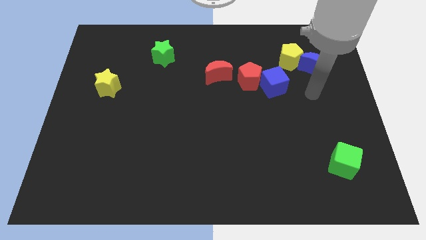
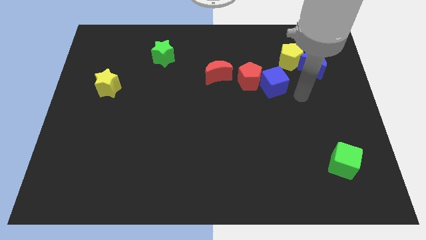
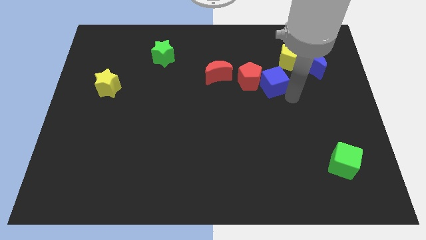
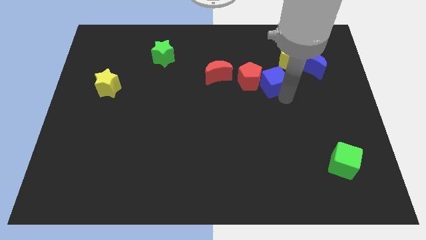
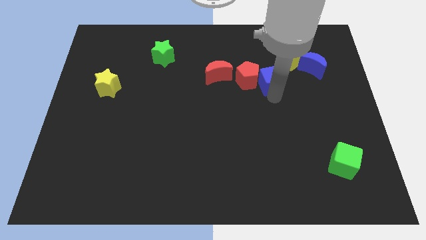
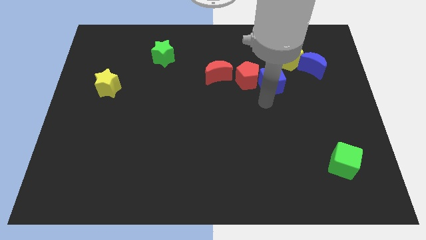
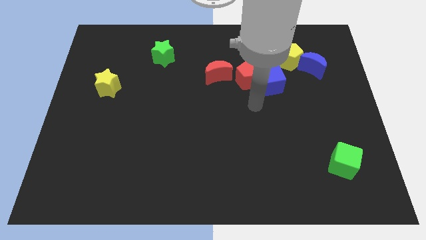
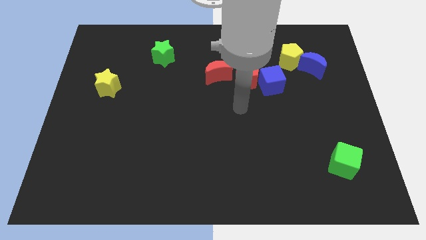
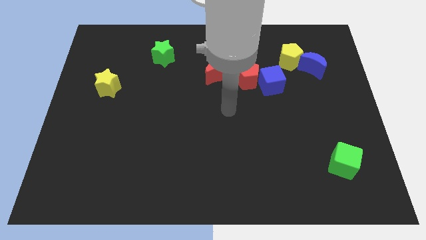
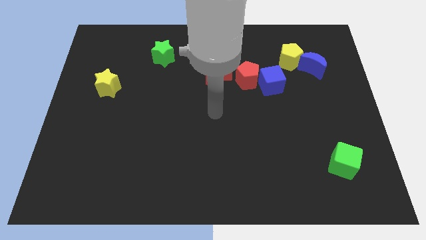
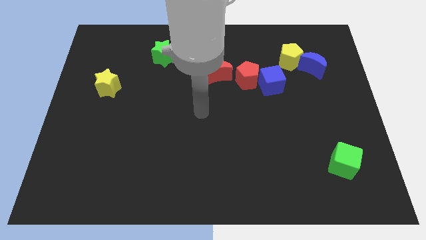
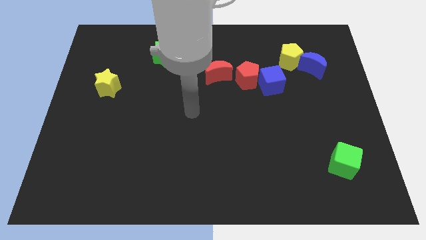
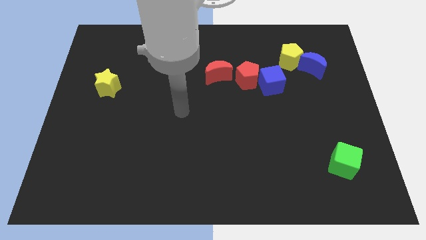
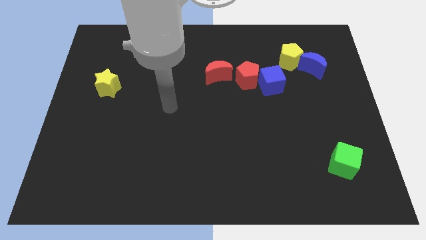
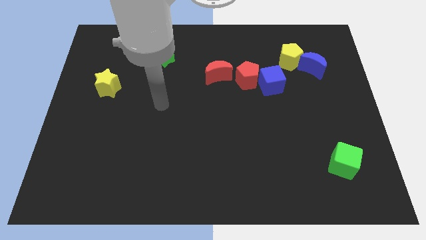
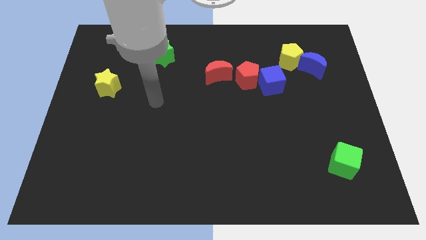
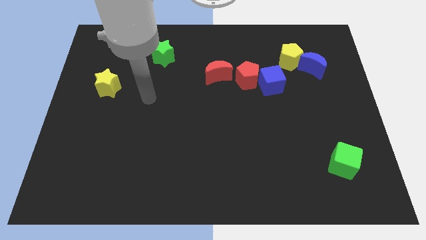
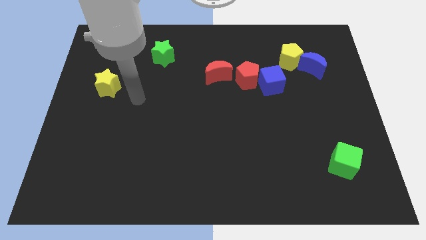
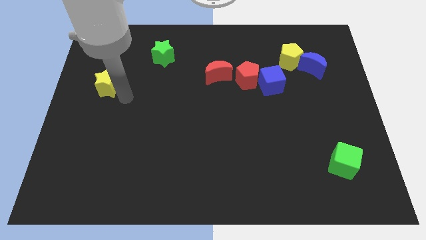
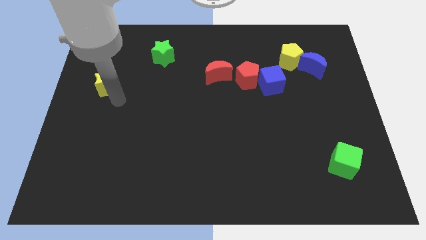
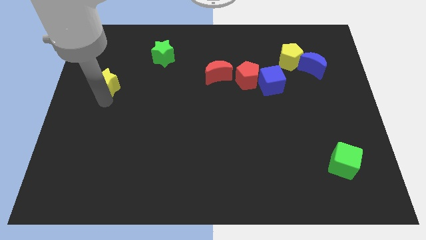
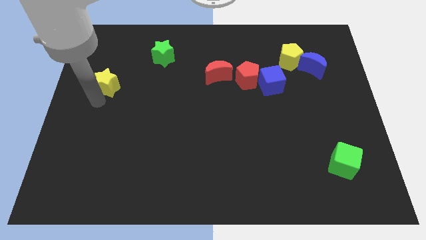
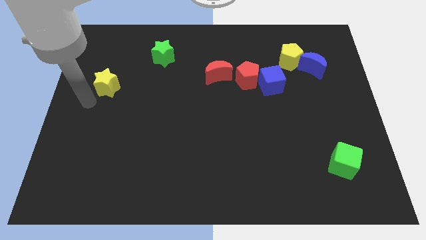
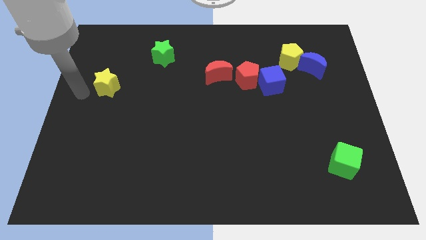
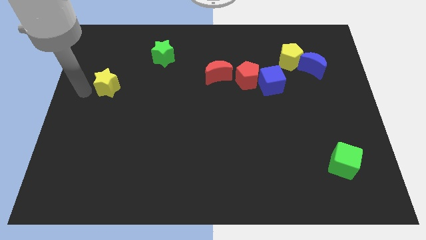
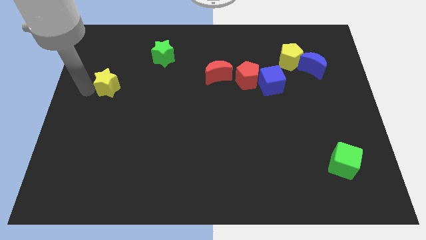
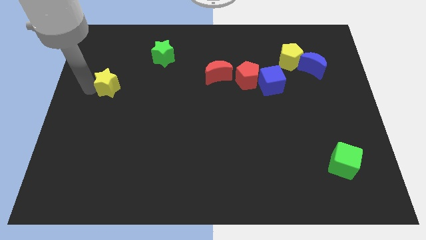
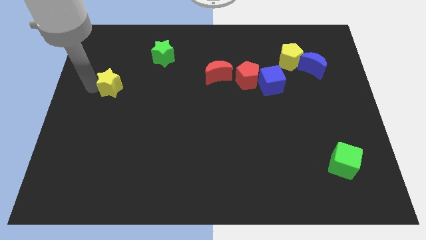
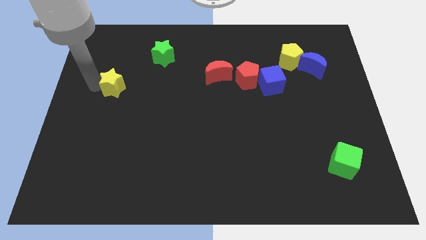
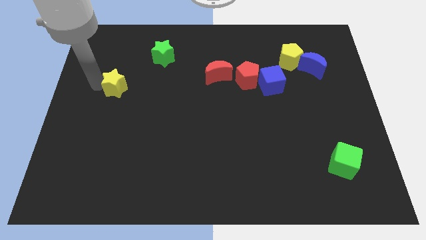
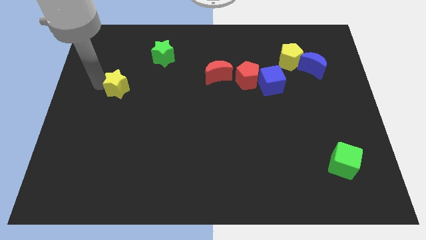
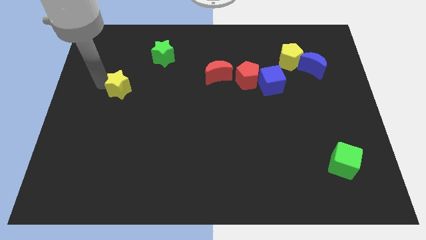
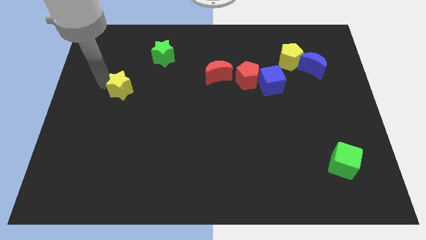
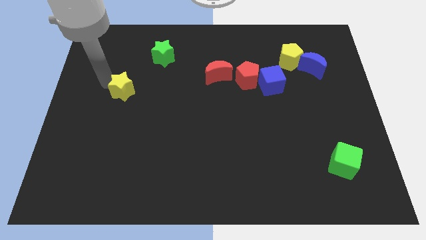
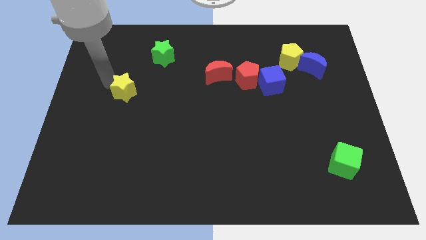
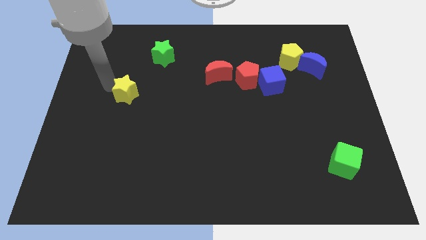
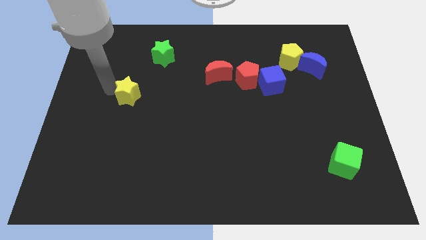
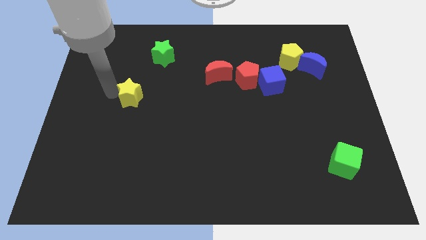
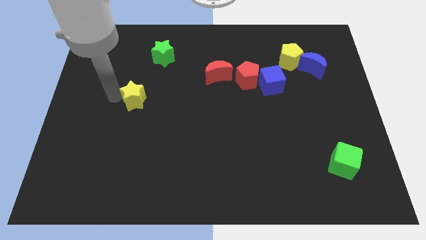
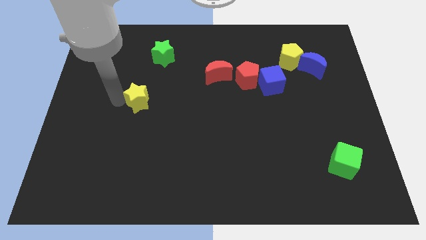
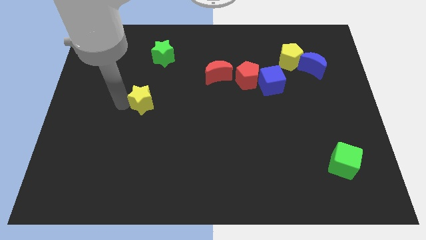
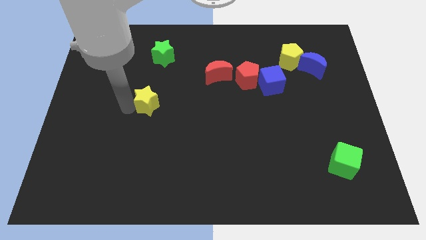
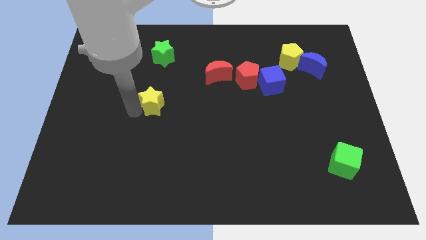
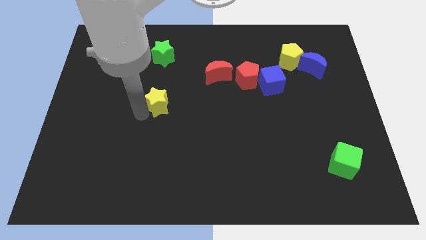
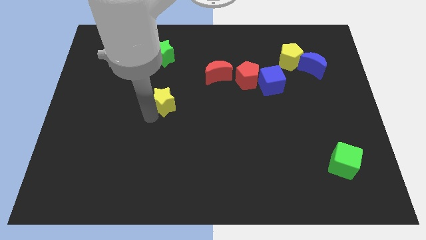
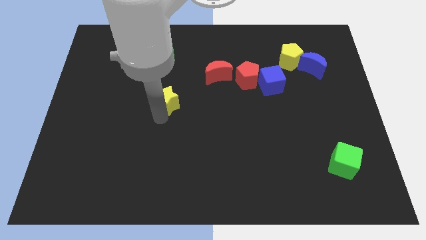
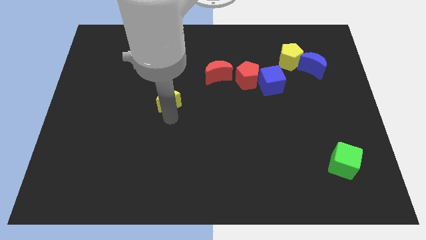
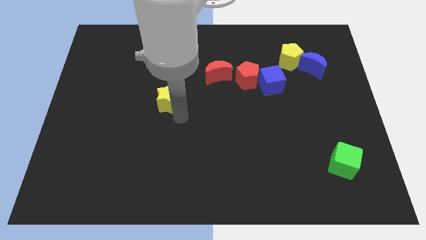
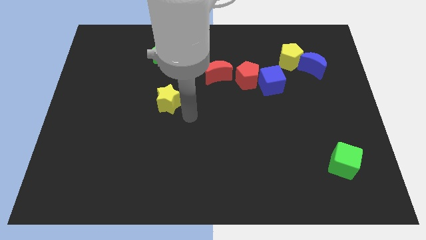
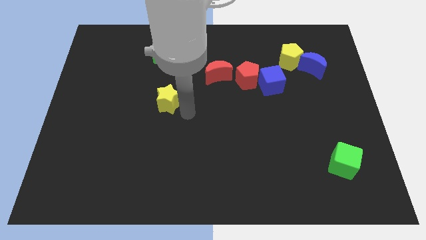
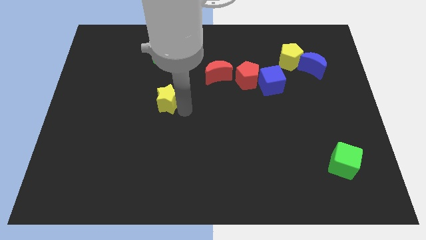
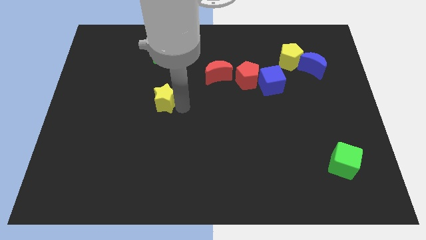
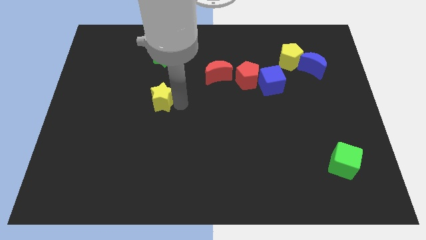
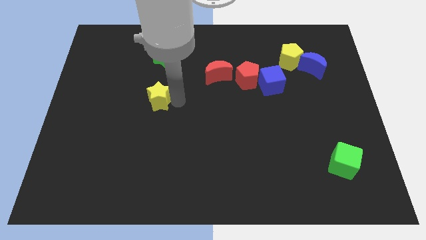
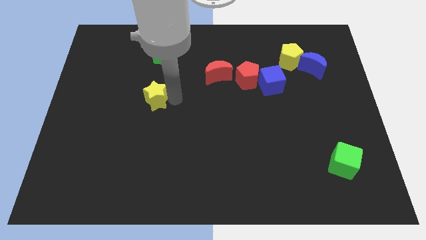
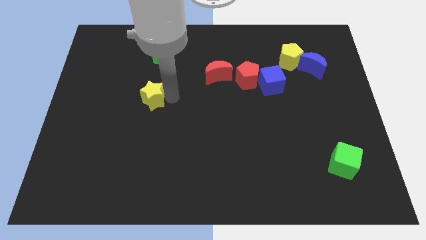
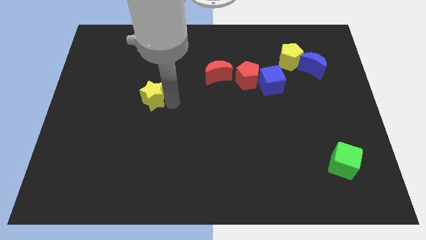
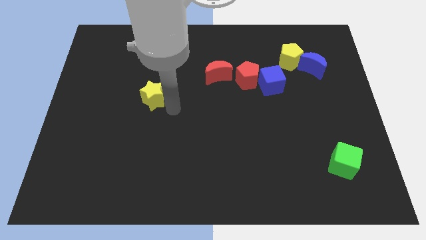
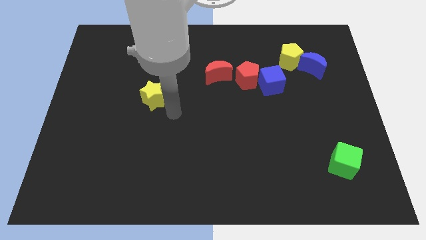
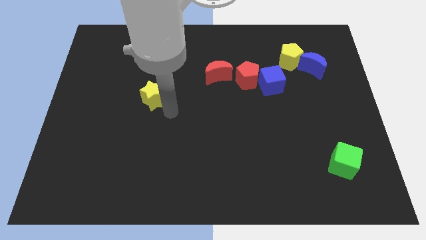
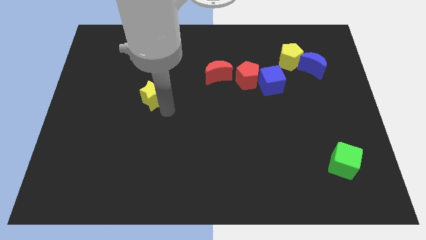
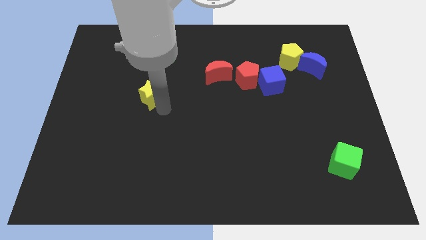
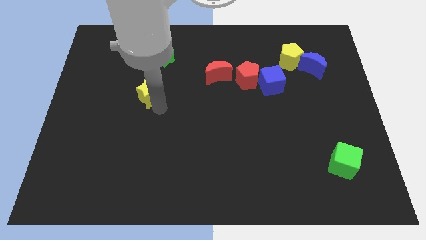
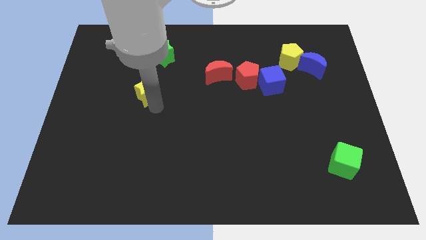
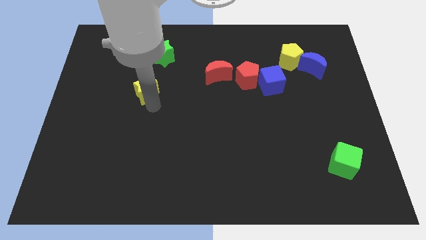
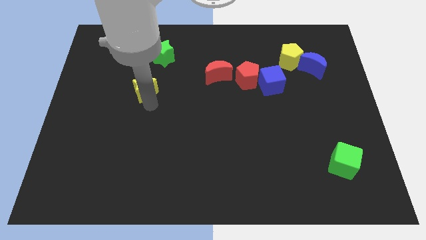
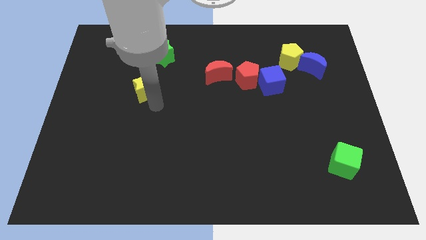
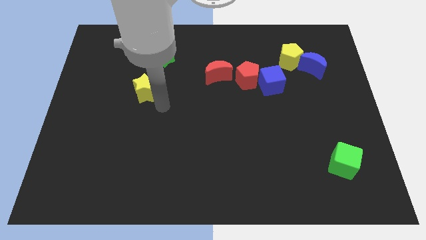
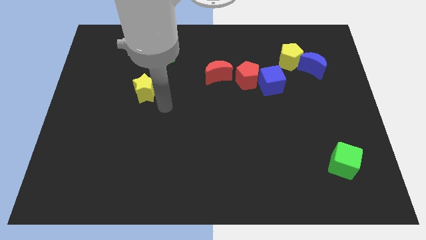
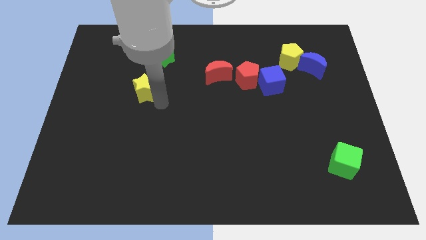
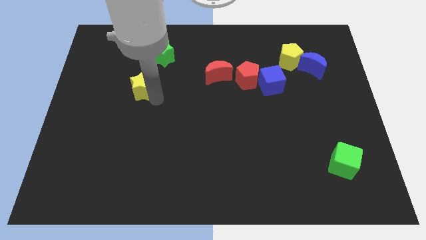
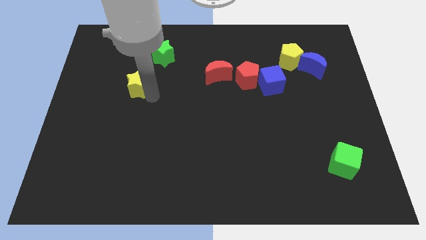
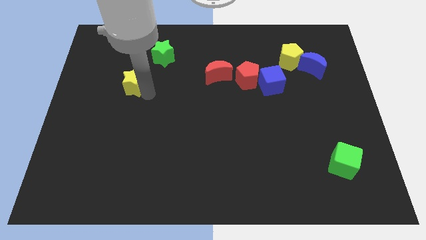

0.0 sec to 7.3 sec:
push the yellow star to the bottom left side of the green star

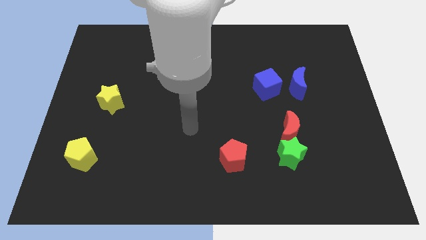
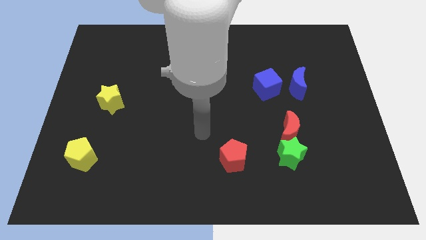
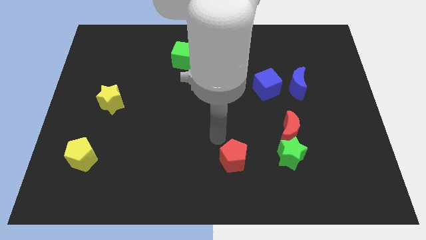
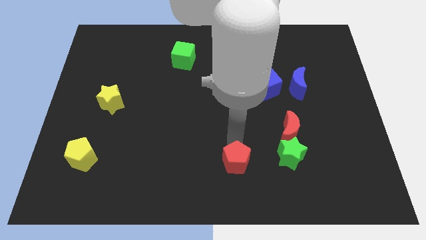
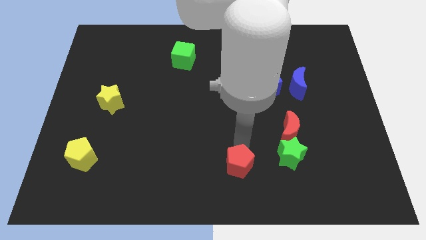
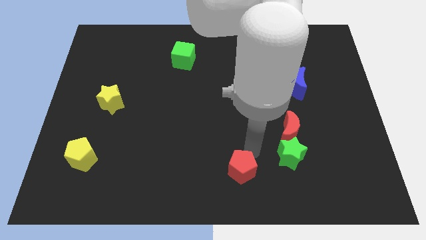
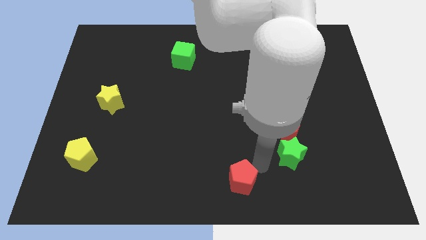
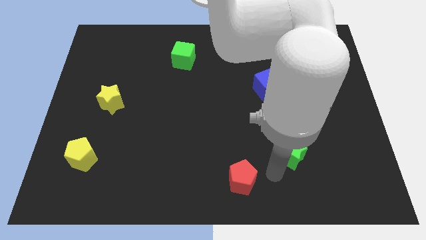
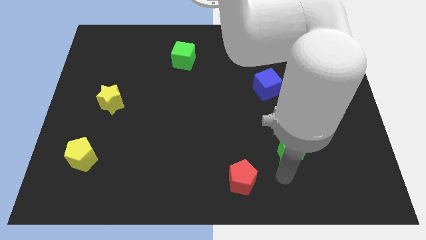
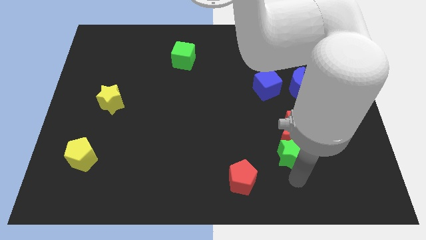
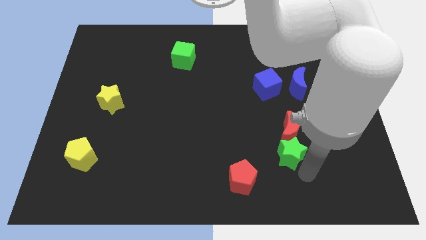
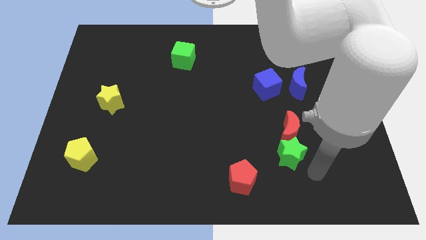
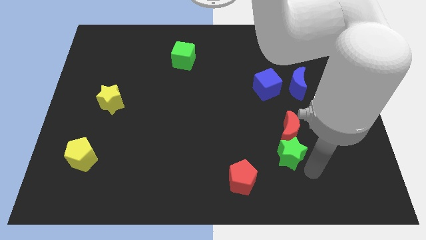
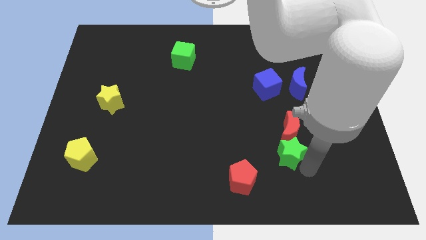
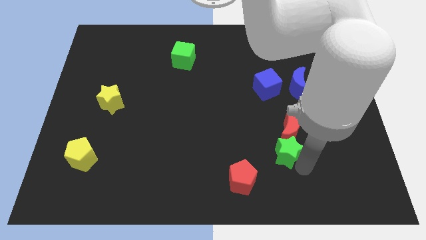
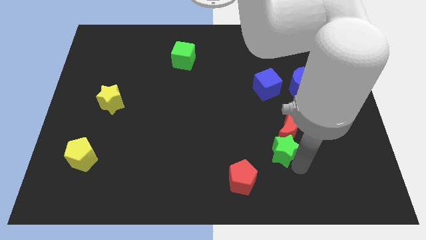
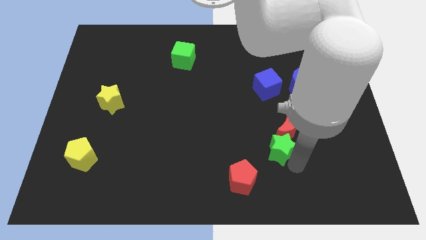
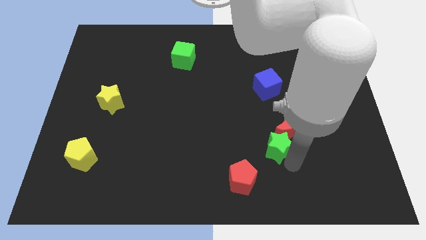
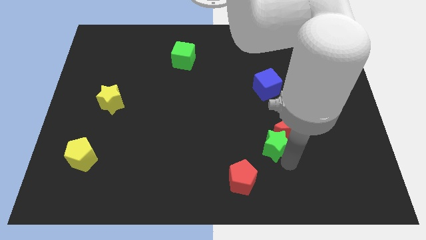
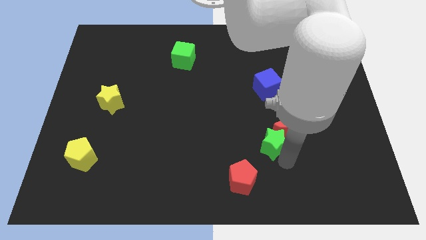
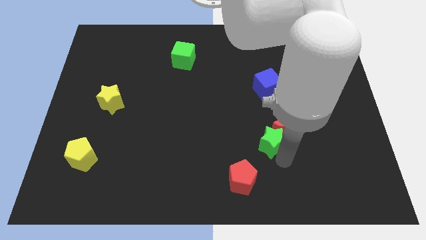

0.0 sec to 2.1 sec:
put the green star below the blue cube
